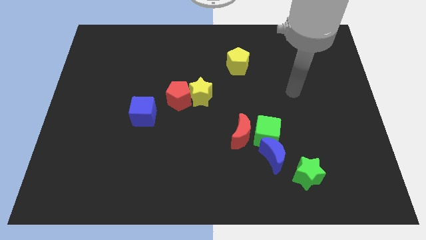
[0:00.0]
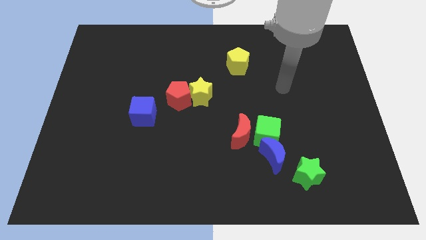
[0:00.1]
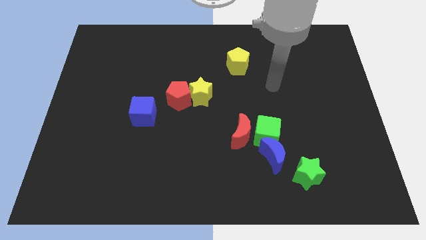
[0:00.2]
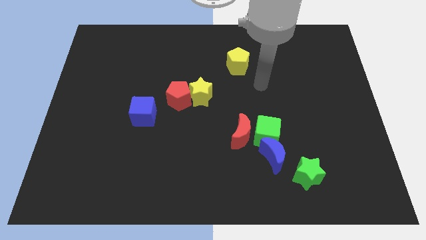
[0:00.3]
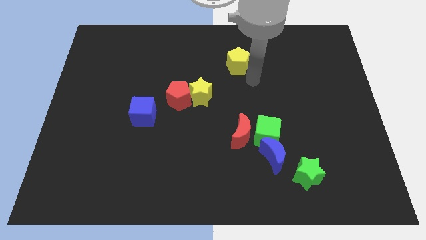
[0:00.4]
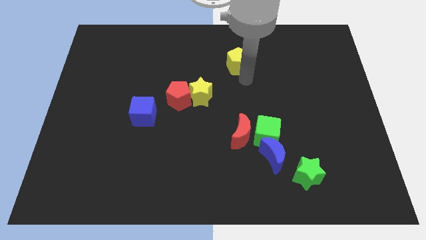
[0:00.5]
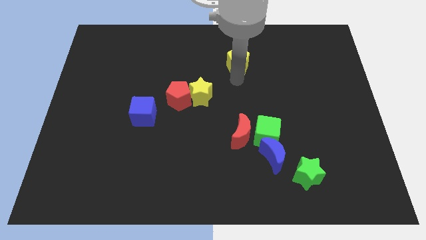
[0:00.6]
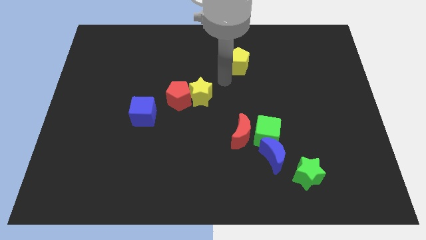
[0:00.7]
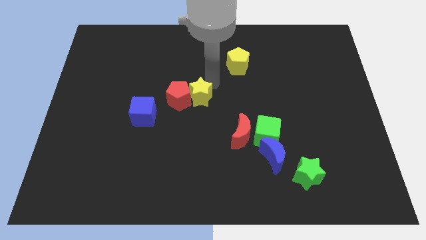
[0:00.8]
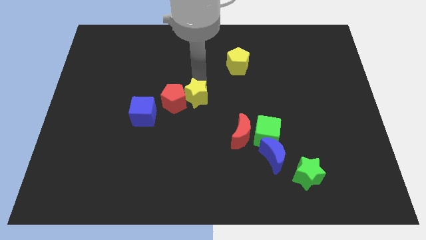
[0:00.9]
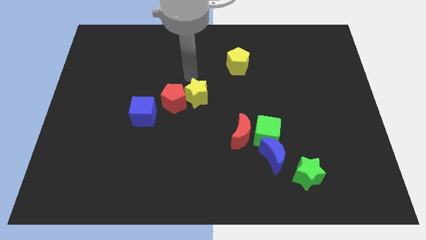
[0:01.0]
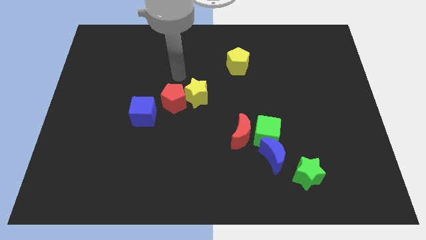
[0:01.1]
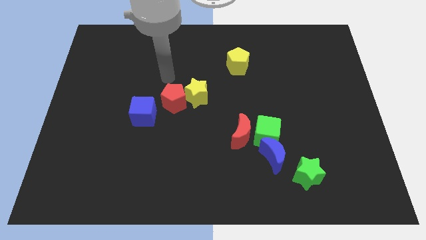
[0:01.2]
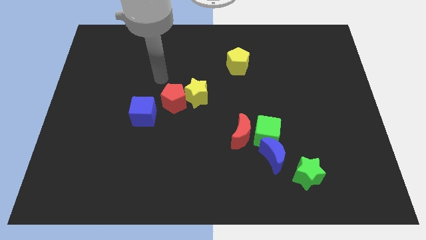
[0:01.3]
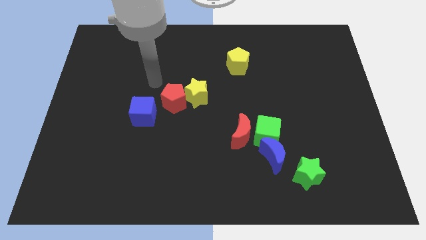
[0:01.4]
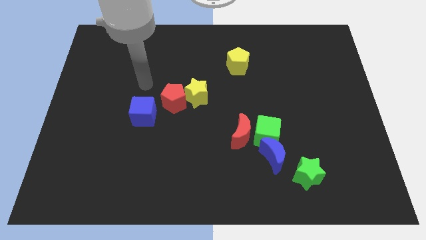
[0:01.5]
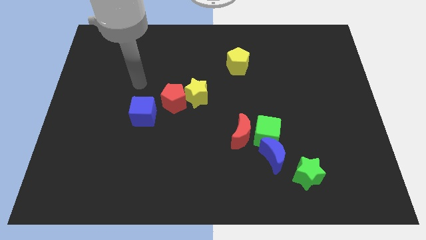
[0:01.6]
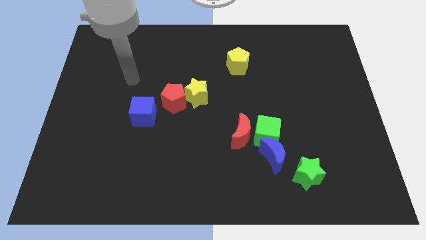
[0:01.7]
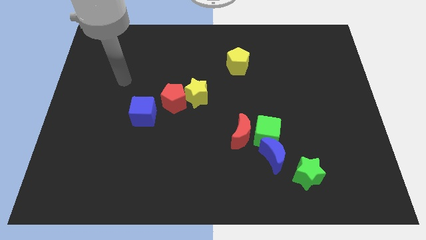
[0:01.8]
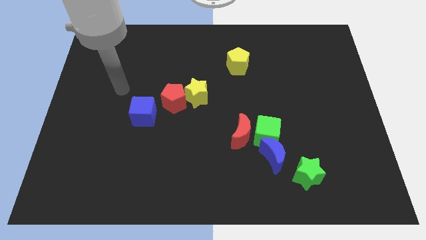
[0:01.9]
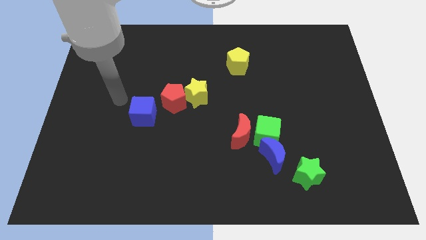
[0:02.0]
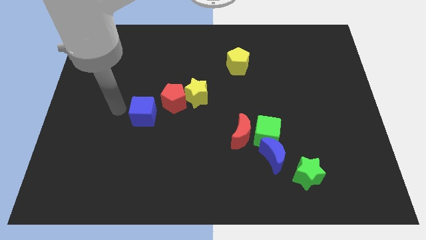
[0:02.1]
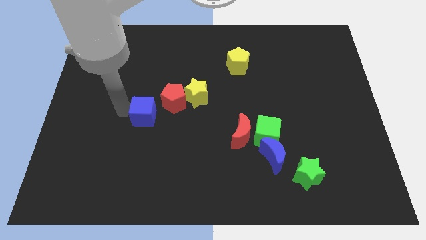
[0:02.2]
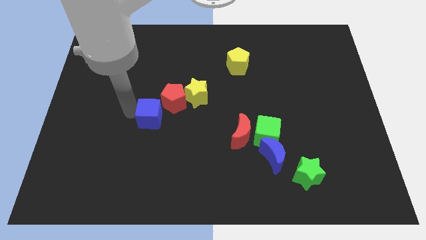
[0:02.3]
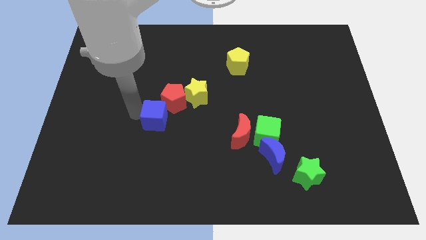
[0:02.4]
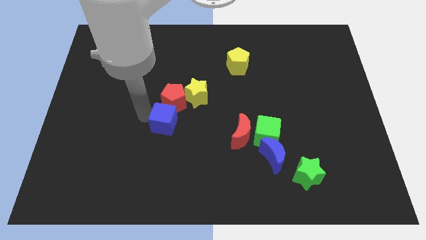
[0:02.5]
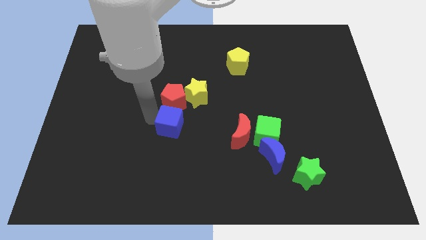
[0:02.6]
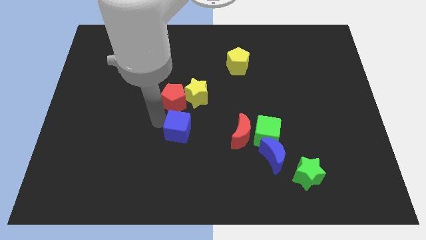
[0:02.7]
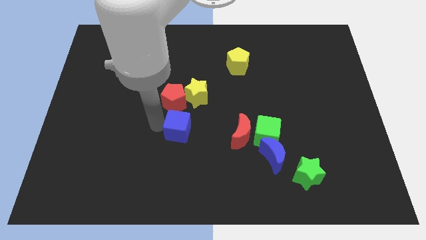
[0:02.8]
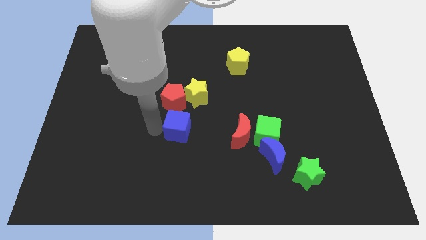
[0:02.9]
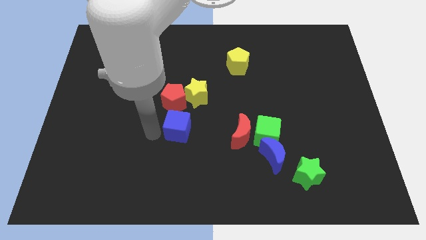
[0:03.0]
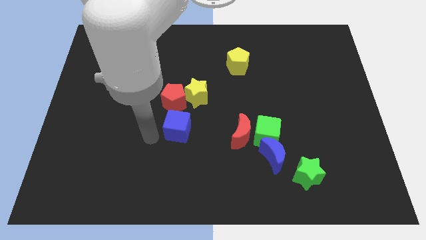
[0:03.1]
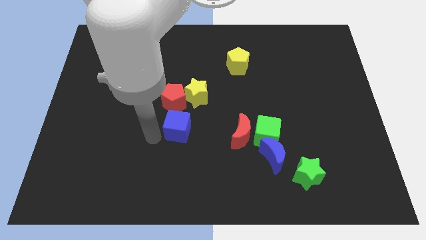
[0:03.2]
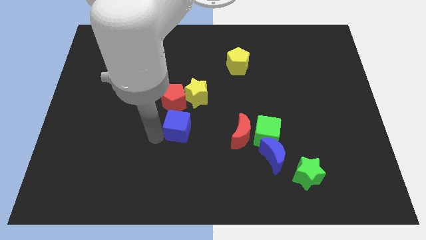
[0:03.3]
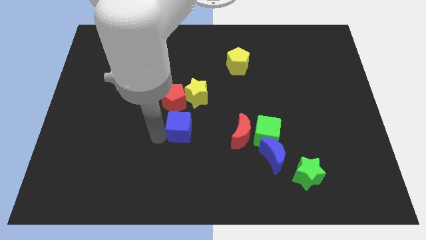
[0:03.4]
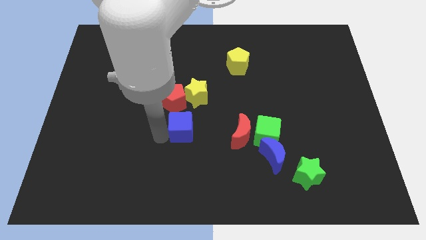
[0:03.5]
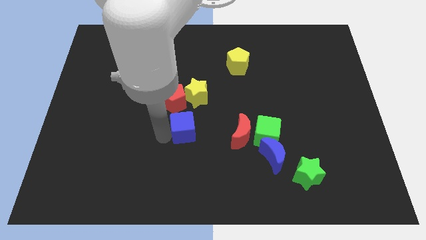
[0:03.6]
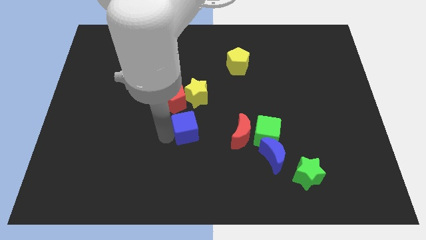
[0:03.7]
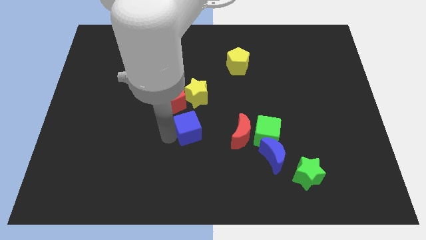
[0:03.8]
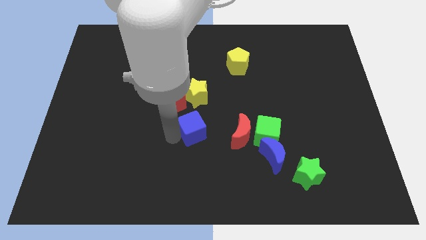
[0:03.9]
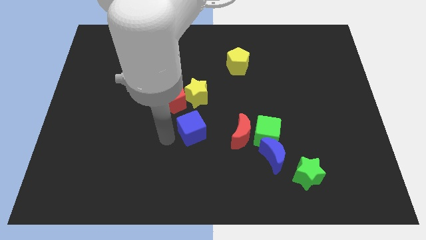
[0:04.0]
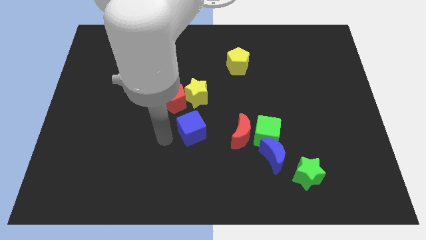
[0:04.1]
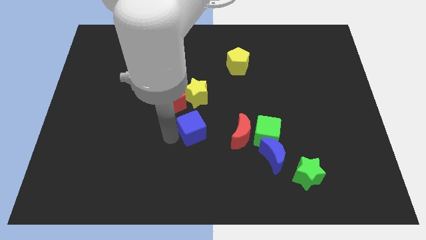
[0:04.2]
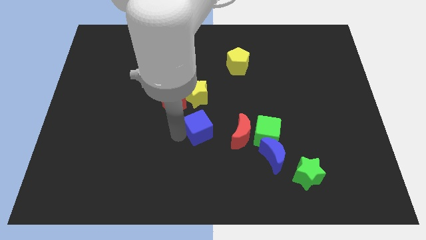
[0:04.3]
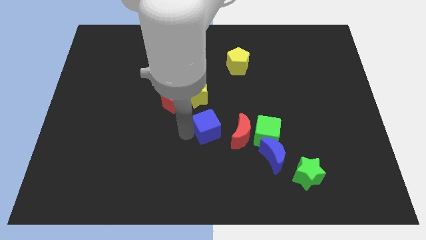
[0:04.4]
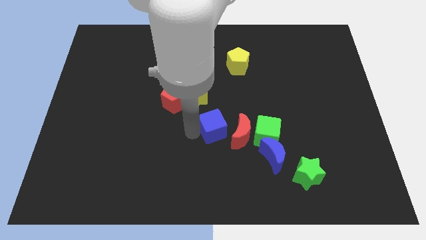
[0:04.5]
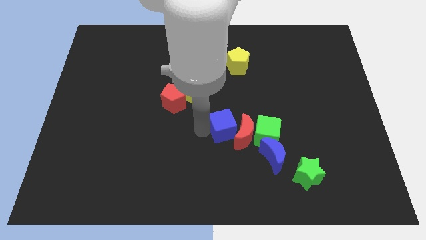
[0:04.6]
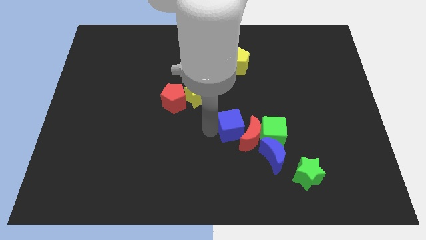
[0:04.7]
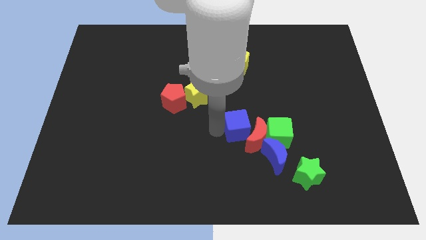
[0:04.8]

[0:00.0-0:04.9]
move the blue cube to the right

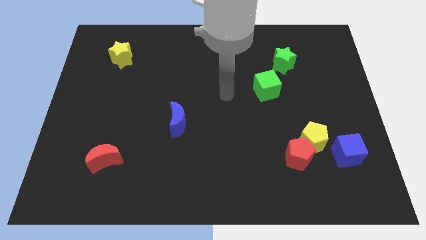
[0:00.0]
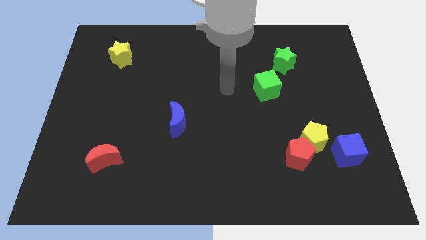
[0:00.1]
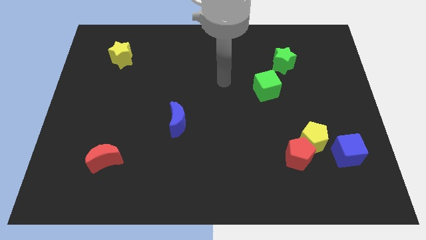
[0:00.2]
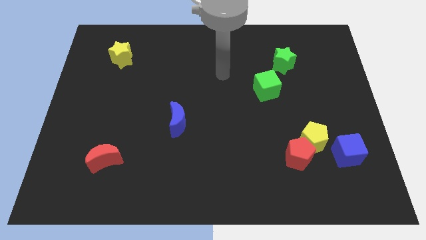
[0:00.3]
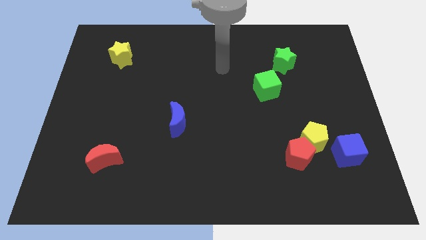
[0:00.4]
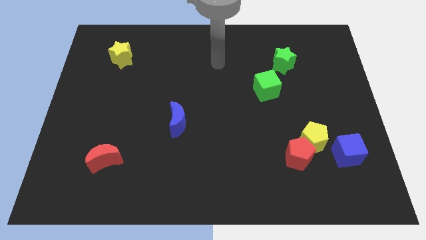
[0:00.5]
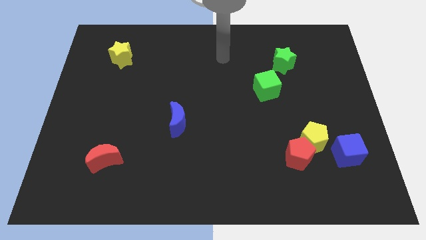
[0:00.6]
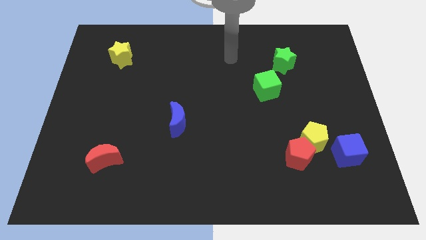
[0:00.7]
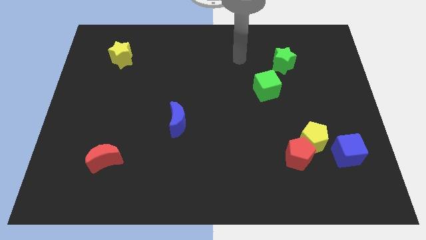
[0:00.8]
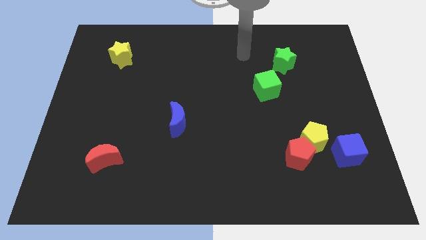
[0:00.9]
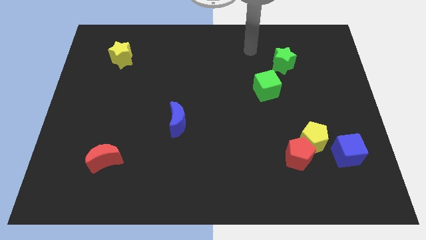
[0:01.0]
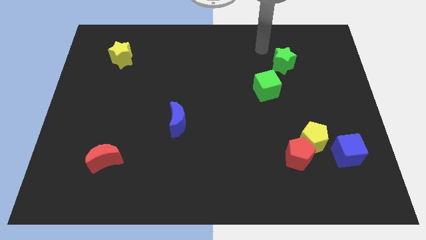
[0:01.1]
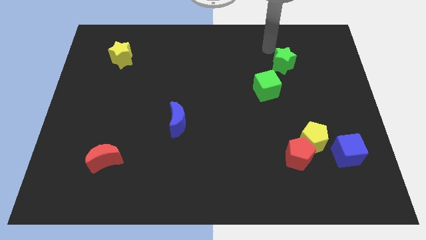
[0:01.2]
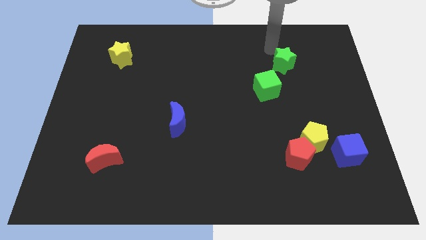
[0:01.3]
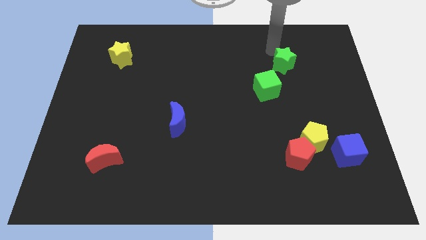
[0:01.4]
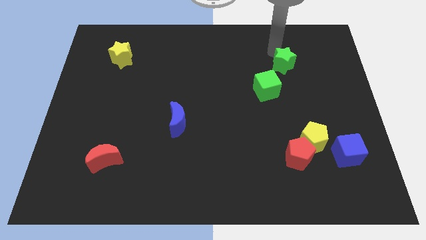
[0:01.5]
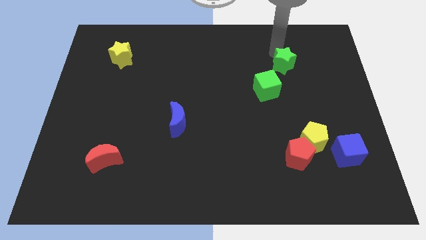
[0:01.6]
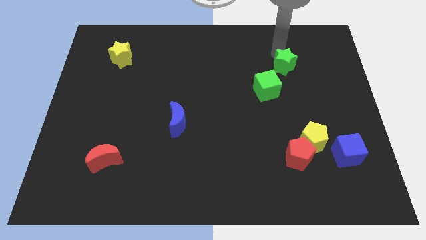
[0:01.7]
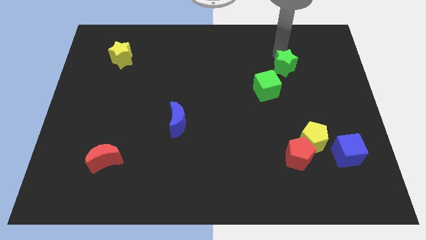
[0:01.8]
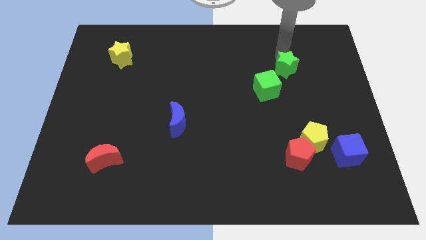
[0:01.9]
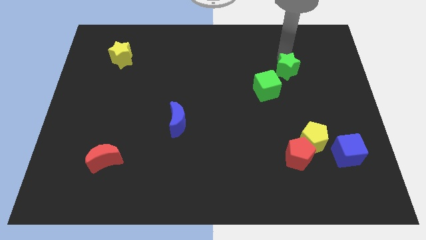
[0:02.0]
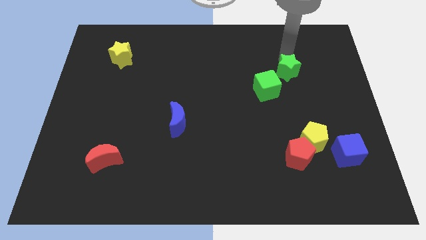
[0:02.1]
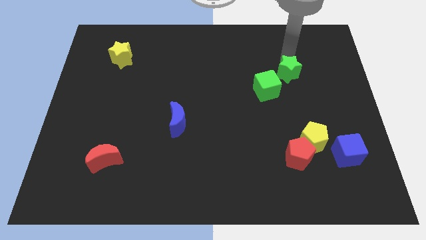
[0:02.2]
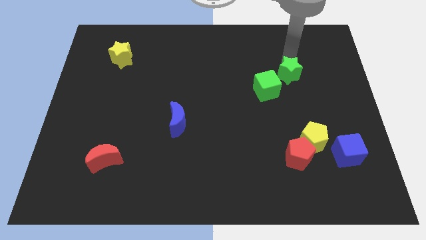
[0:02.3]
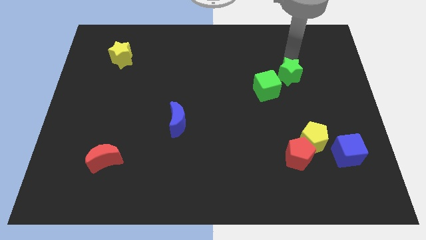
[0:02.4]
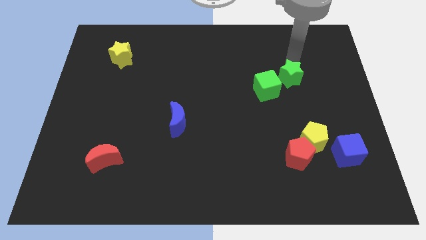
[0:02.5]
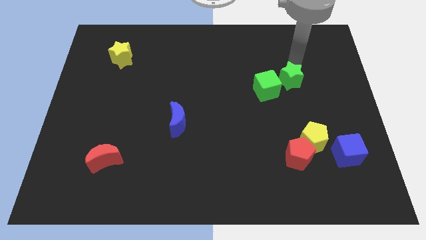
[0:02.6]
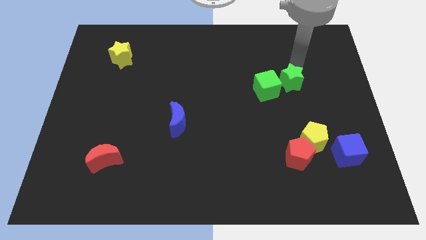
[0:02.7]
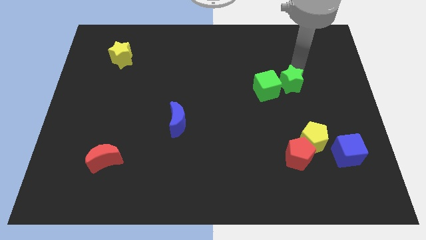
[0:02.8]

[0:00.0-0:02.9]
move the green star slightly down

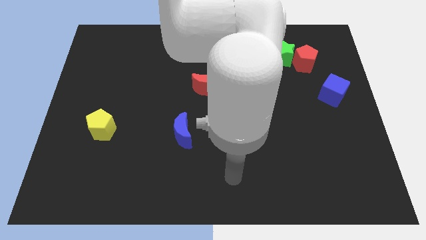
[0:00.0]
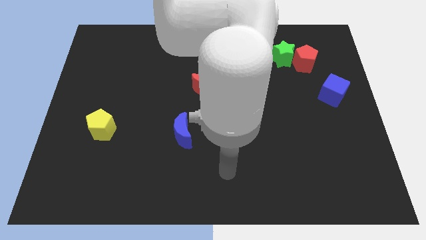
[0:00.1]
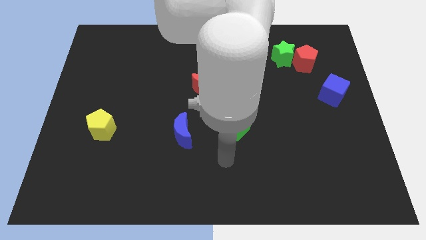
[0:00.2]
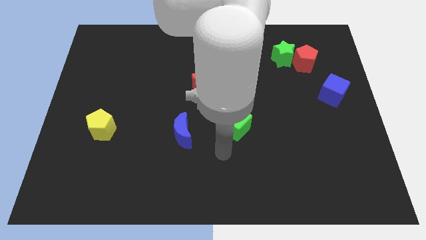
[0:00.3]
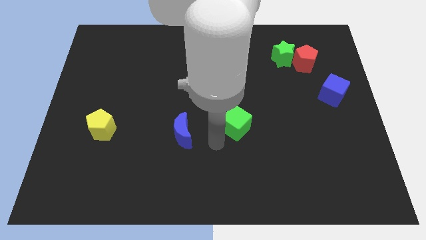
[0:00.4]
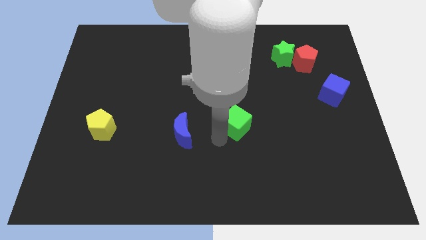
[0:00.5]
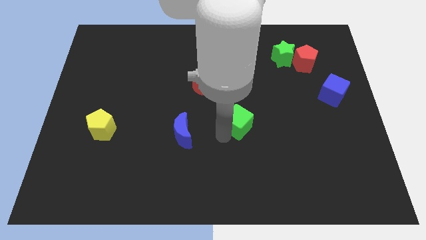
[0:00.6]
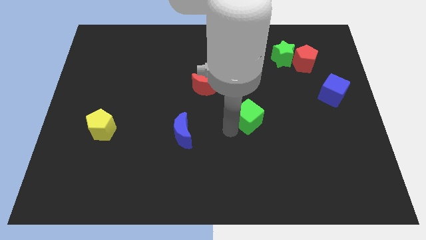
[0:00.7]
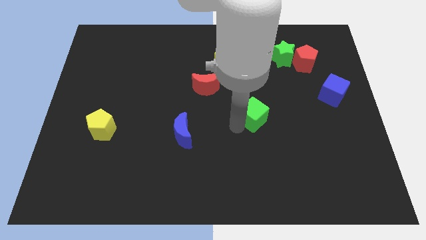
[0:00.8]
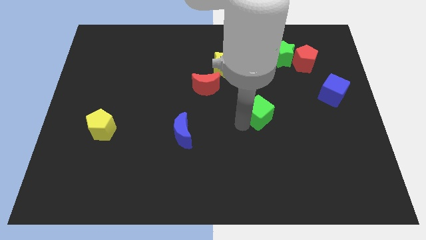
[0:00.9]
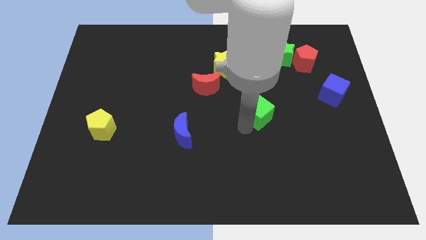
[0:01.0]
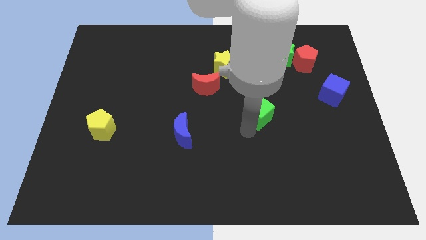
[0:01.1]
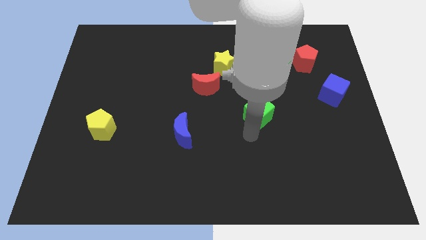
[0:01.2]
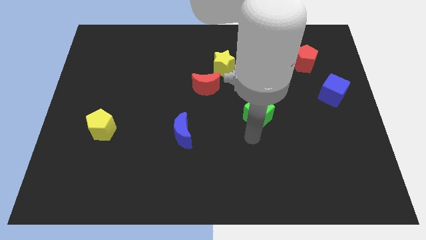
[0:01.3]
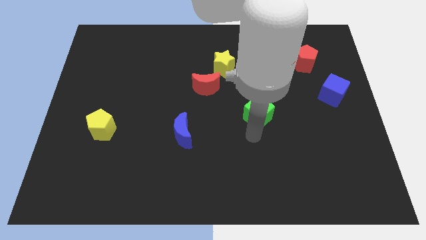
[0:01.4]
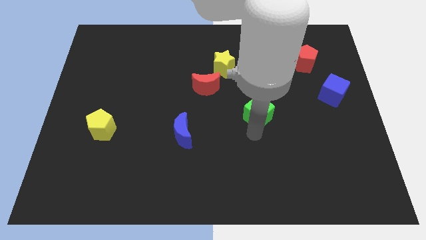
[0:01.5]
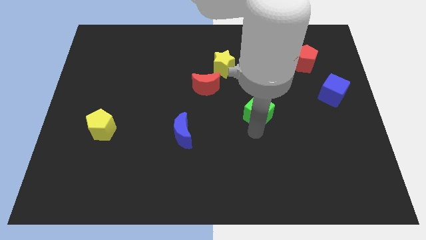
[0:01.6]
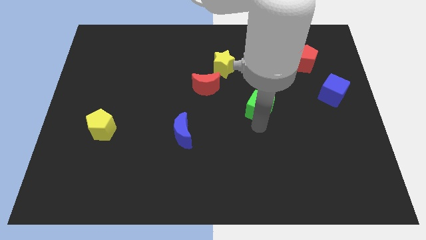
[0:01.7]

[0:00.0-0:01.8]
slightly slide the green cube upwards and to the right diagonally
